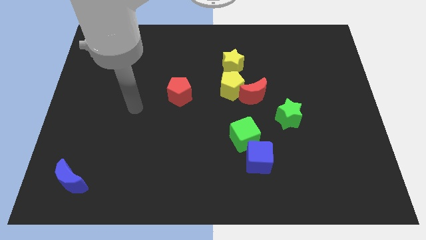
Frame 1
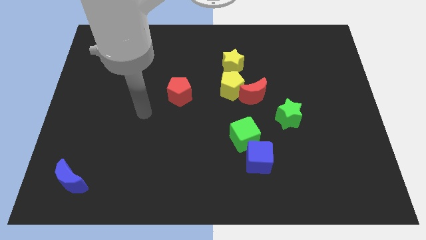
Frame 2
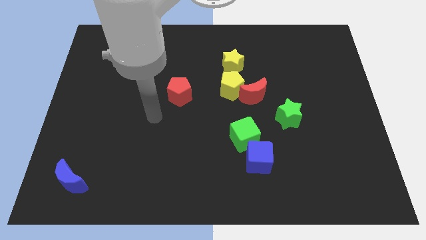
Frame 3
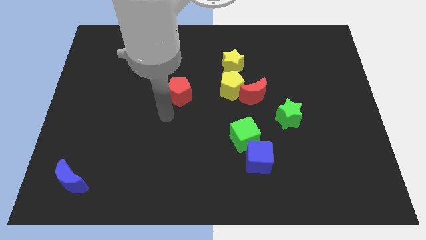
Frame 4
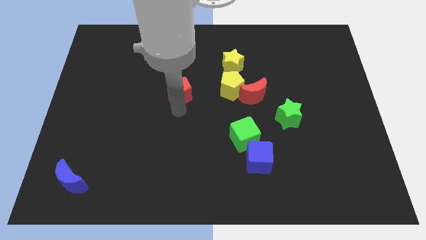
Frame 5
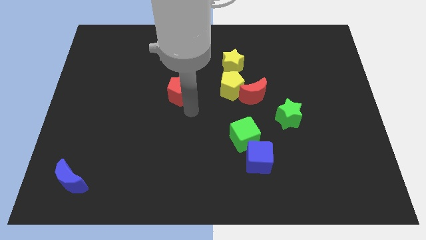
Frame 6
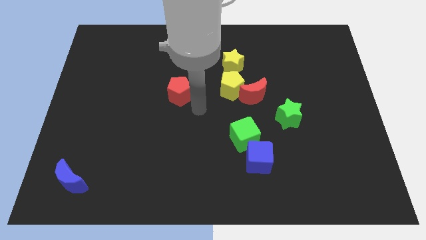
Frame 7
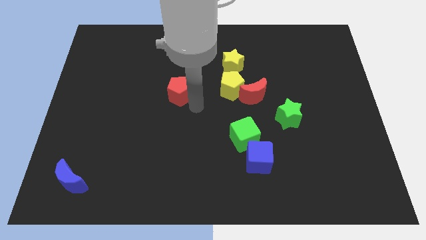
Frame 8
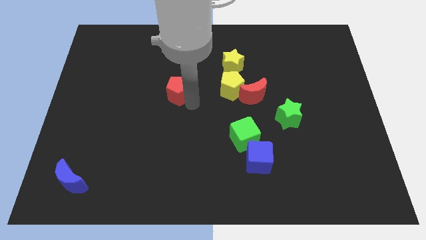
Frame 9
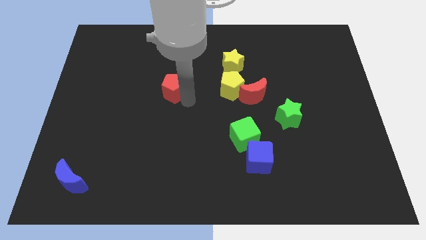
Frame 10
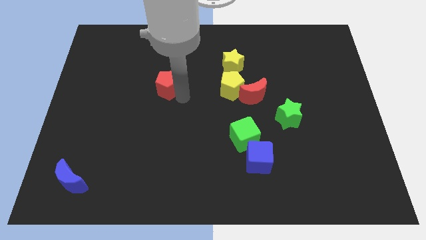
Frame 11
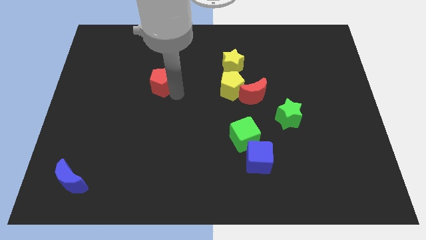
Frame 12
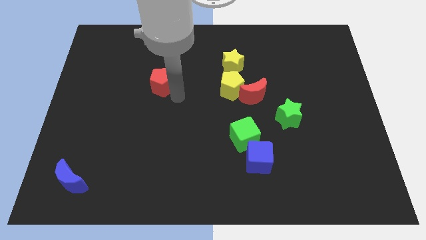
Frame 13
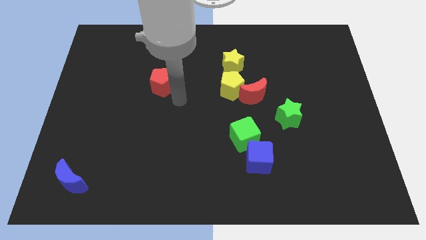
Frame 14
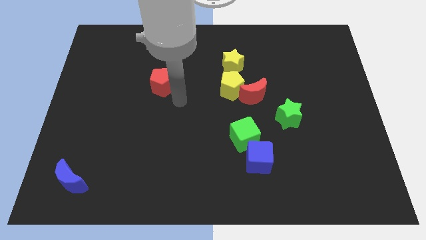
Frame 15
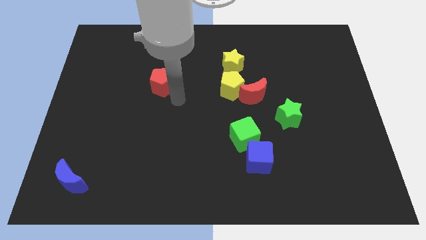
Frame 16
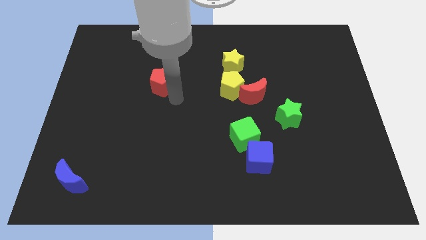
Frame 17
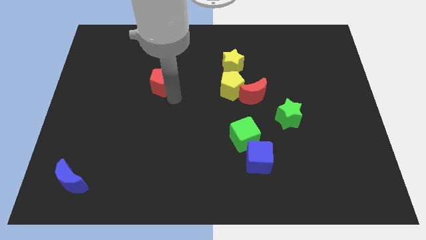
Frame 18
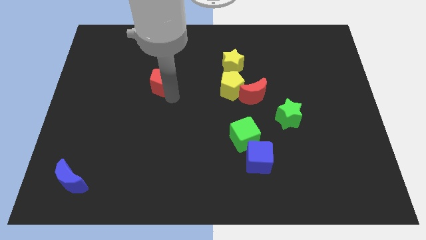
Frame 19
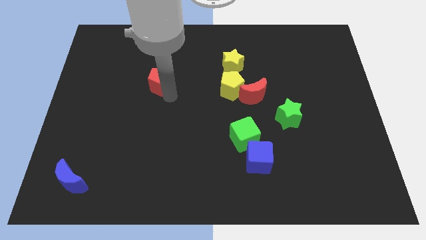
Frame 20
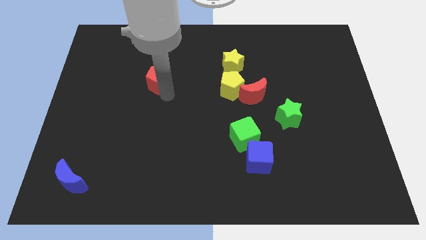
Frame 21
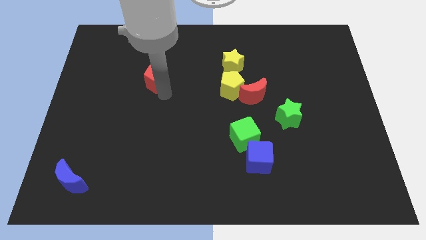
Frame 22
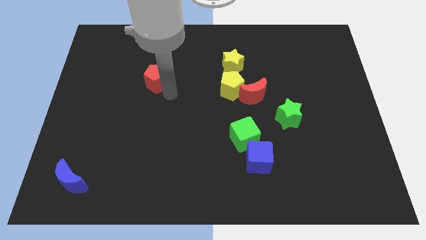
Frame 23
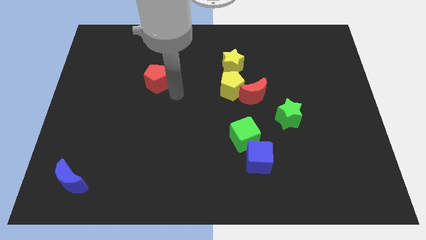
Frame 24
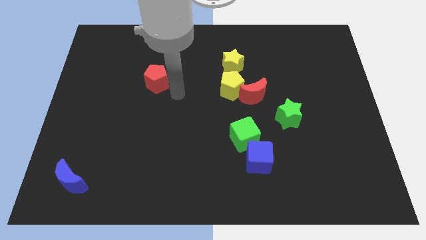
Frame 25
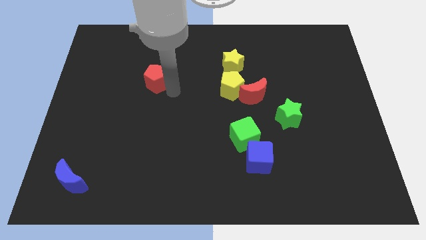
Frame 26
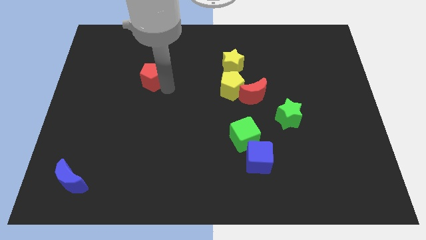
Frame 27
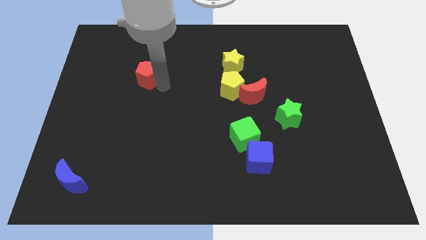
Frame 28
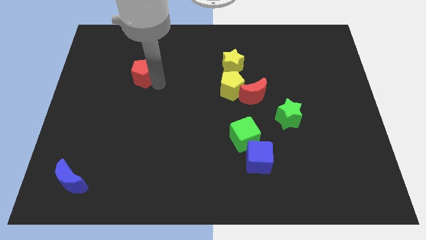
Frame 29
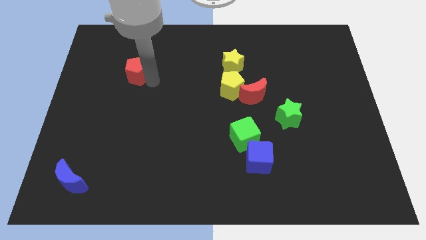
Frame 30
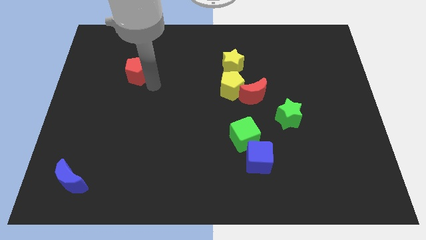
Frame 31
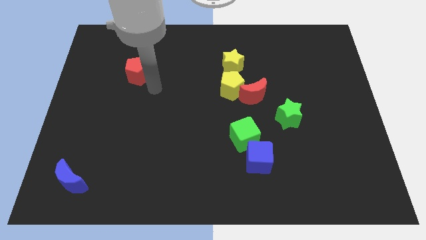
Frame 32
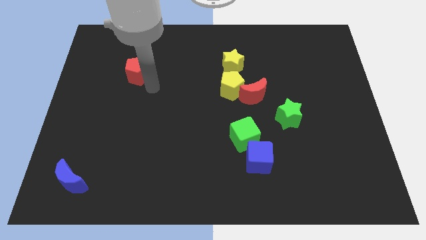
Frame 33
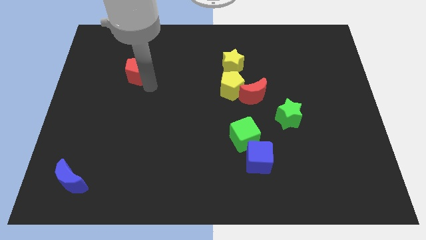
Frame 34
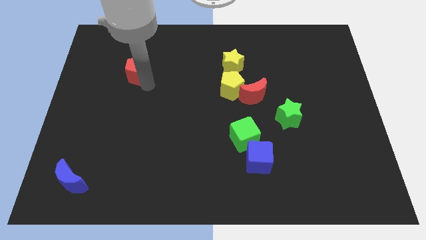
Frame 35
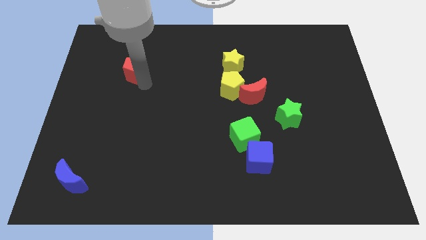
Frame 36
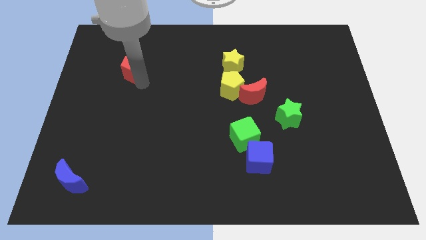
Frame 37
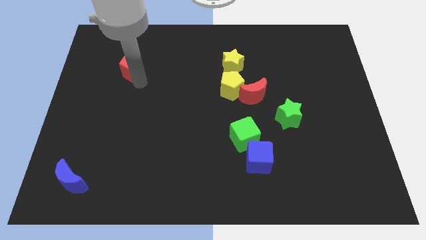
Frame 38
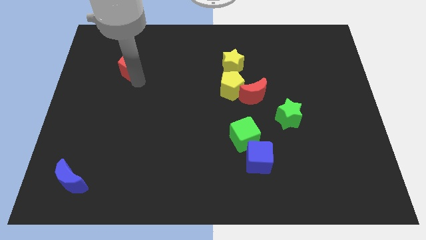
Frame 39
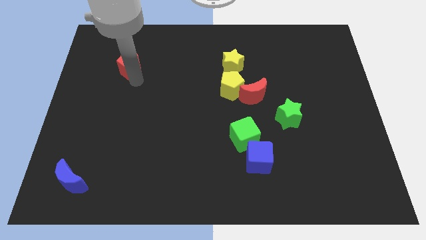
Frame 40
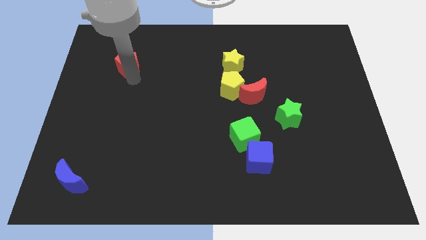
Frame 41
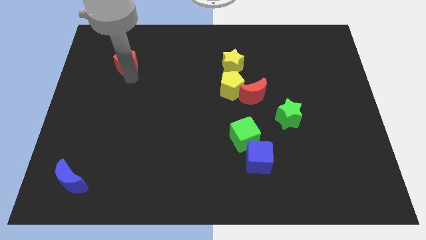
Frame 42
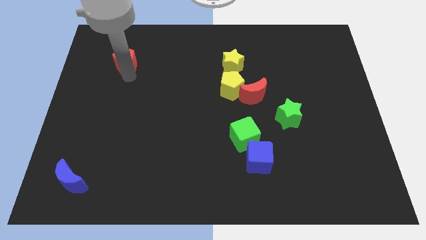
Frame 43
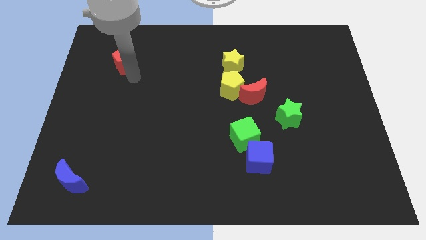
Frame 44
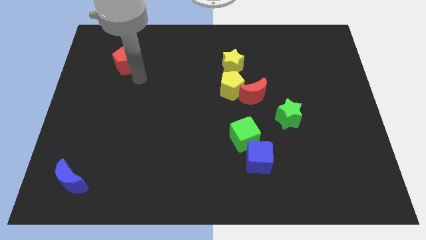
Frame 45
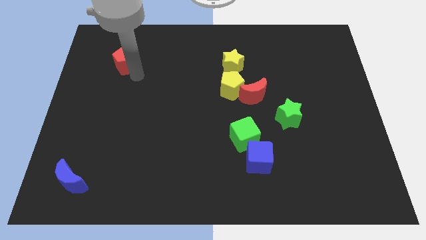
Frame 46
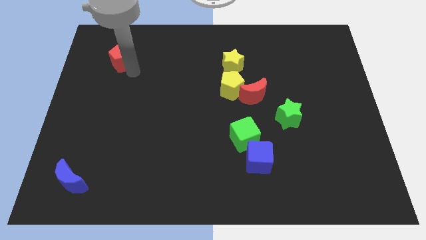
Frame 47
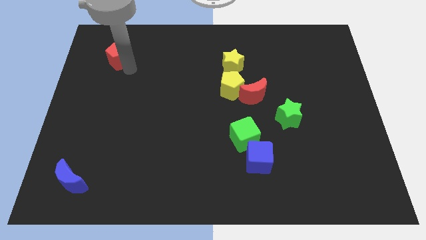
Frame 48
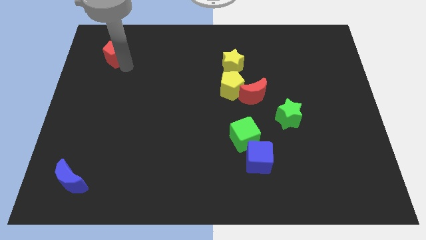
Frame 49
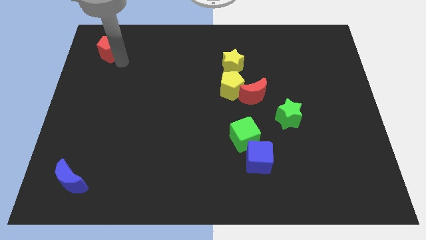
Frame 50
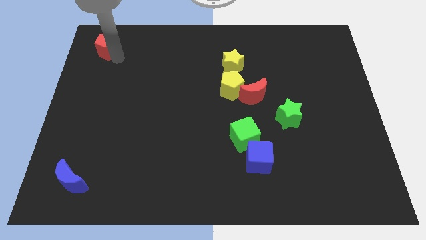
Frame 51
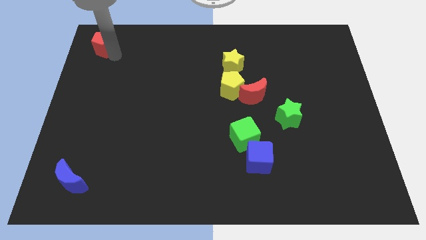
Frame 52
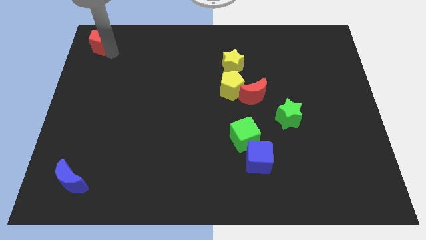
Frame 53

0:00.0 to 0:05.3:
push the red pentagon to the upper left corner

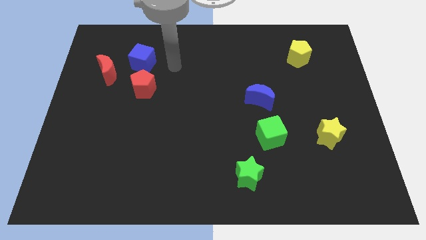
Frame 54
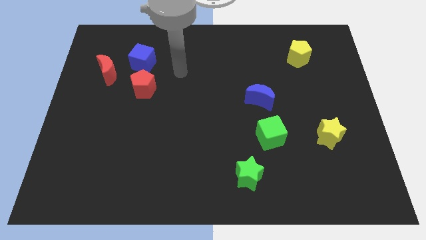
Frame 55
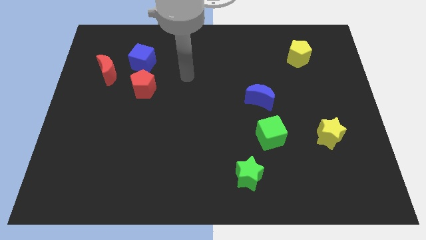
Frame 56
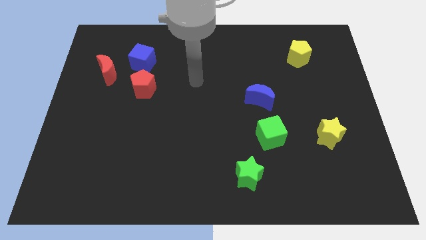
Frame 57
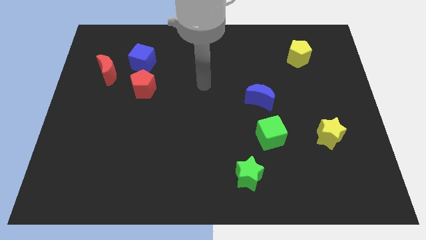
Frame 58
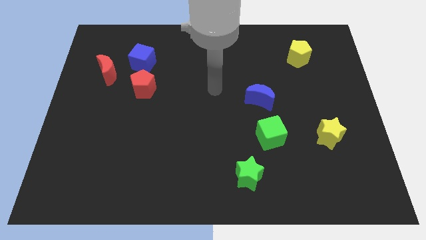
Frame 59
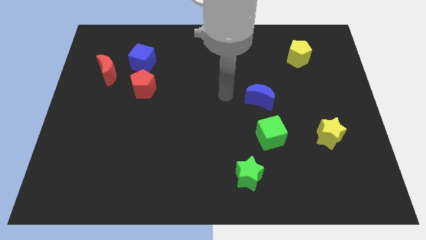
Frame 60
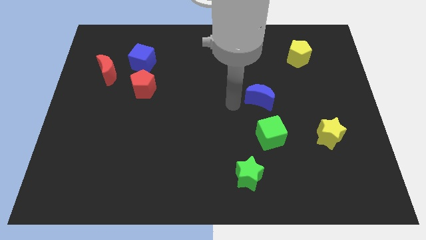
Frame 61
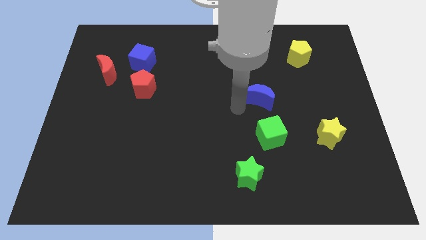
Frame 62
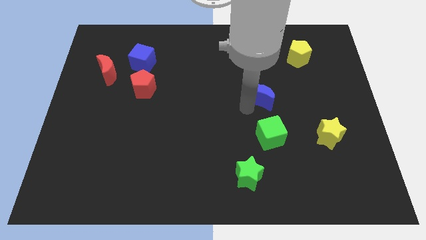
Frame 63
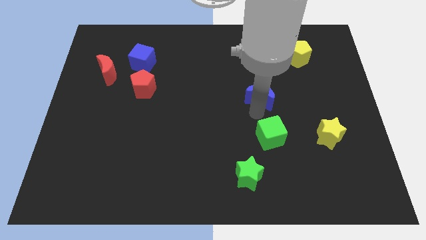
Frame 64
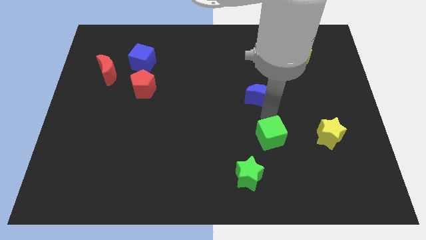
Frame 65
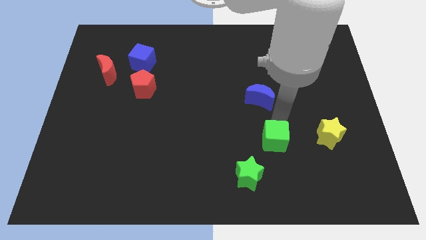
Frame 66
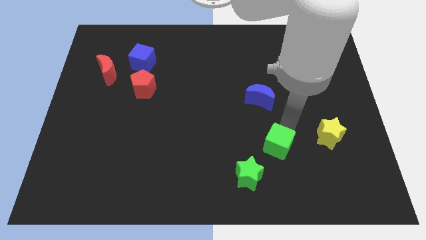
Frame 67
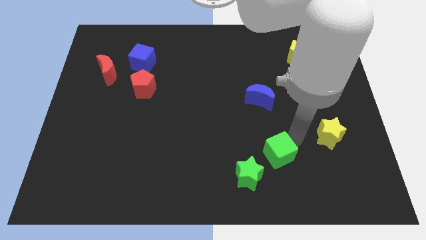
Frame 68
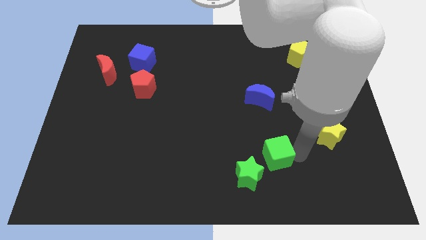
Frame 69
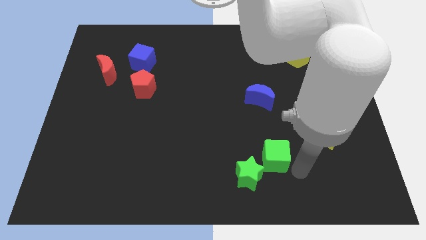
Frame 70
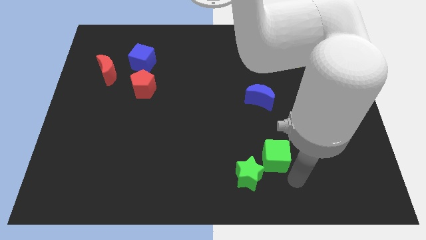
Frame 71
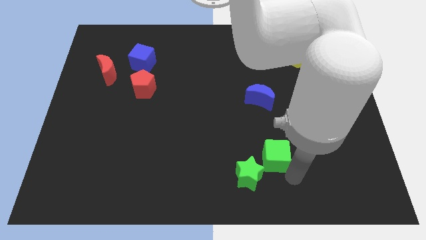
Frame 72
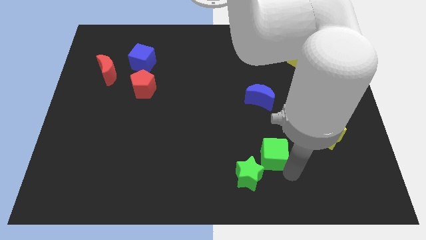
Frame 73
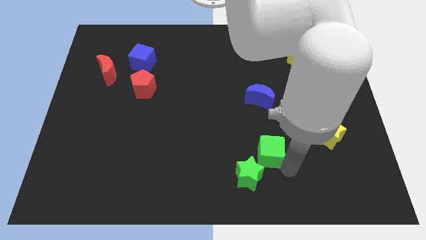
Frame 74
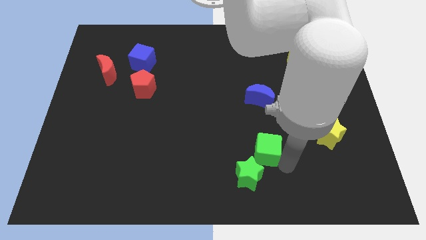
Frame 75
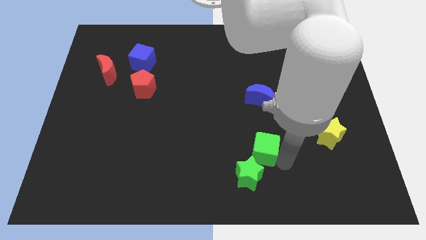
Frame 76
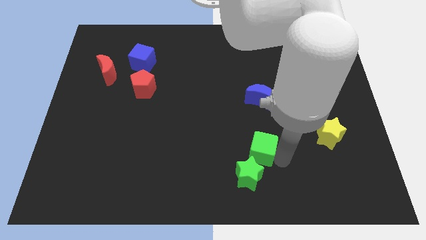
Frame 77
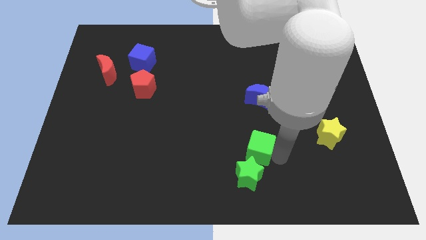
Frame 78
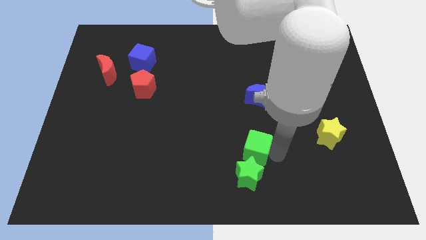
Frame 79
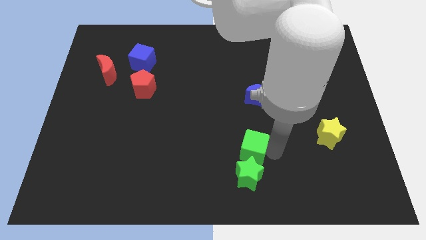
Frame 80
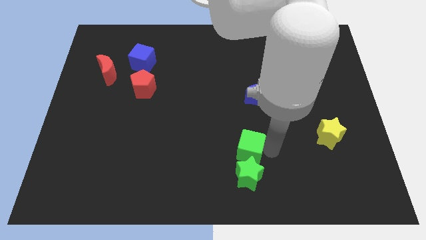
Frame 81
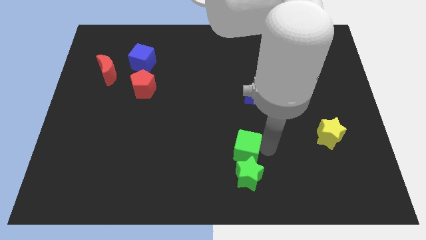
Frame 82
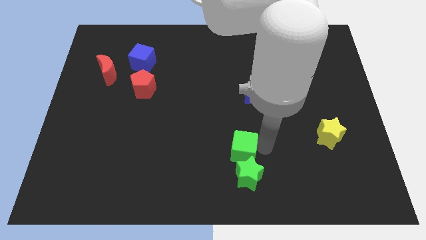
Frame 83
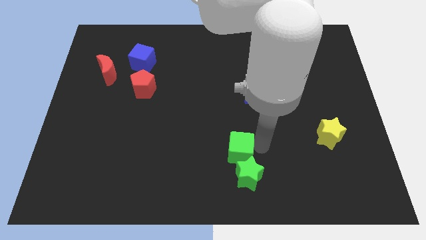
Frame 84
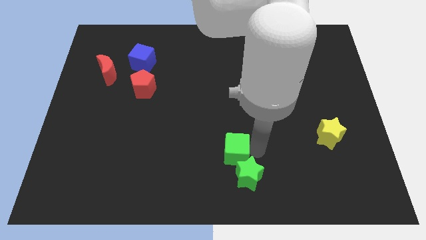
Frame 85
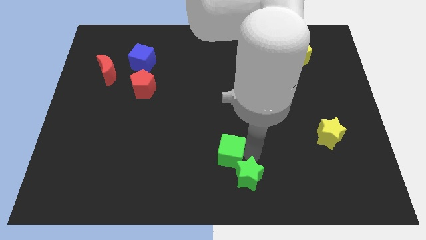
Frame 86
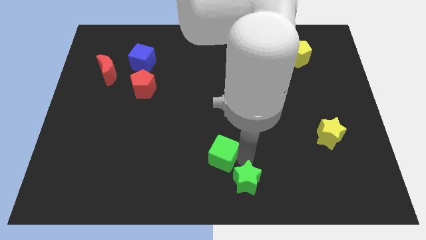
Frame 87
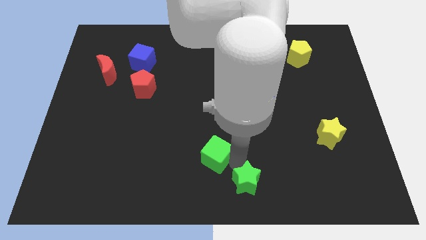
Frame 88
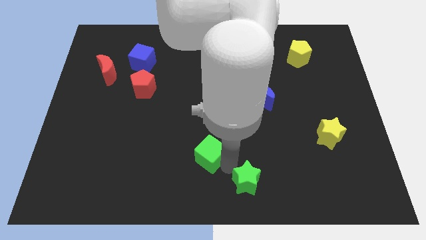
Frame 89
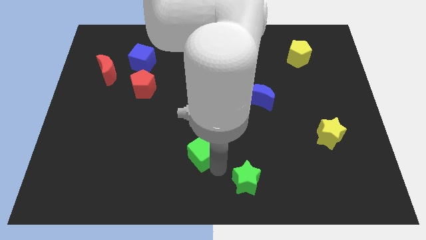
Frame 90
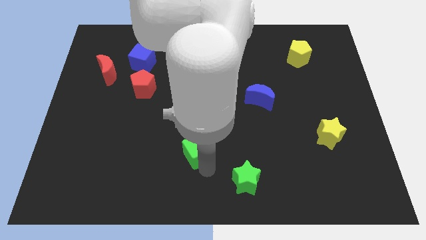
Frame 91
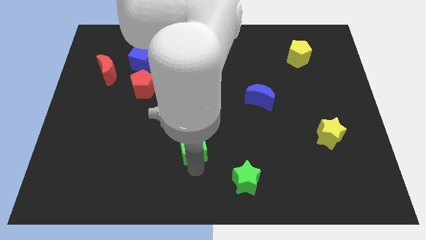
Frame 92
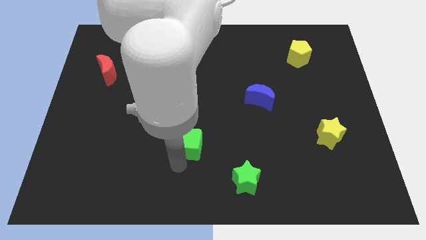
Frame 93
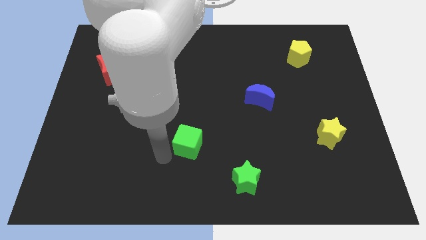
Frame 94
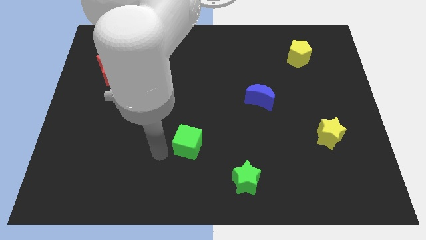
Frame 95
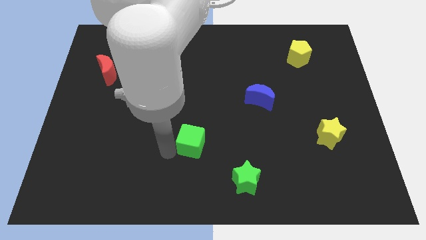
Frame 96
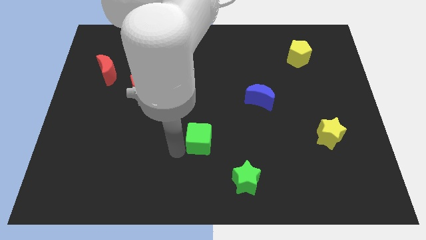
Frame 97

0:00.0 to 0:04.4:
slide the green cube to the center of the board
